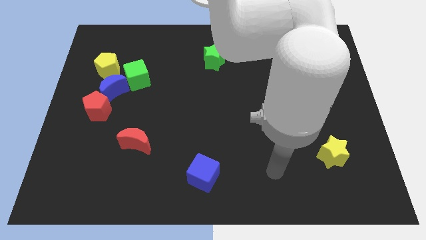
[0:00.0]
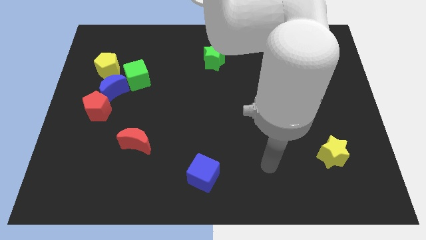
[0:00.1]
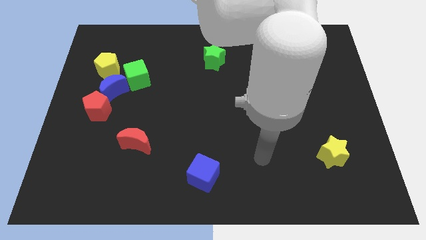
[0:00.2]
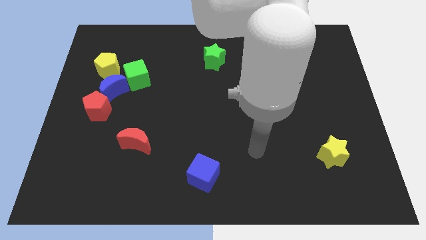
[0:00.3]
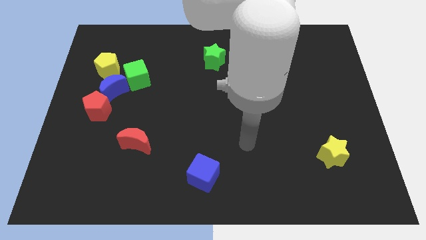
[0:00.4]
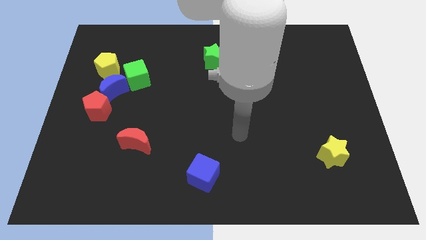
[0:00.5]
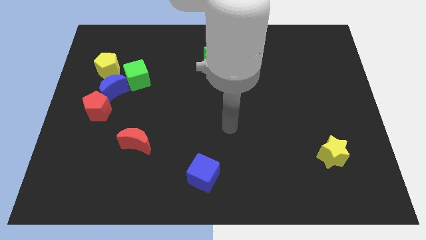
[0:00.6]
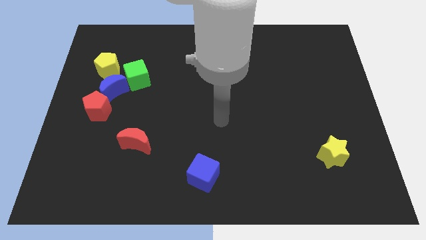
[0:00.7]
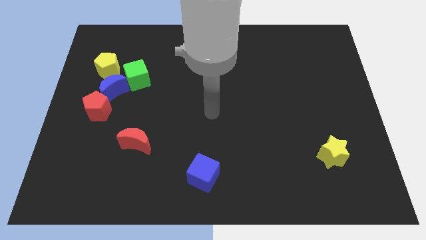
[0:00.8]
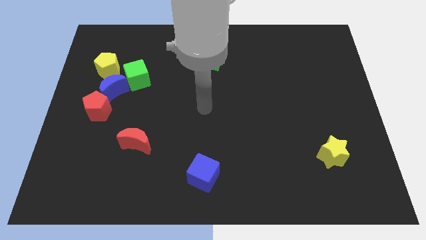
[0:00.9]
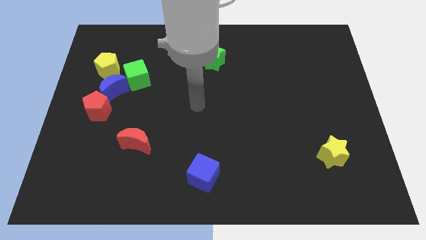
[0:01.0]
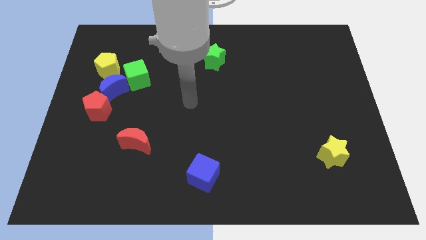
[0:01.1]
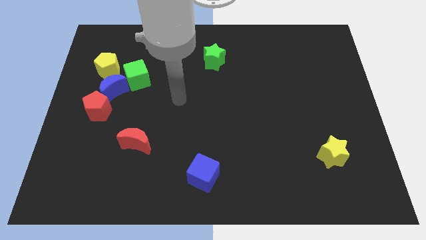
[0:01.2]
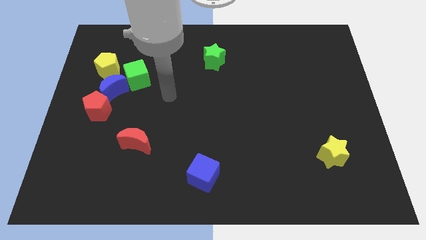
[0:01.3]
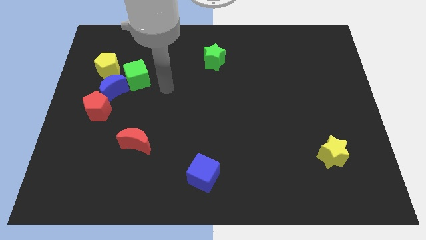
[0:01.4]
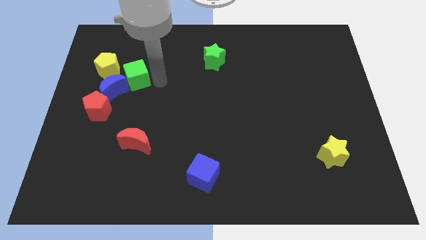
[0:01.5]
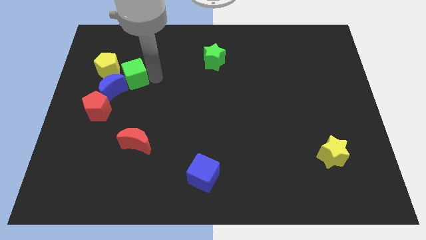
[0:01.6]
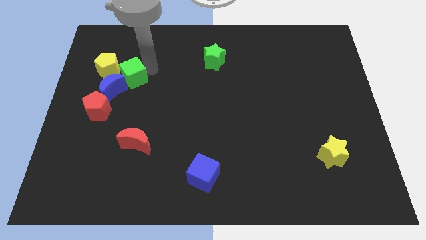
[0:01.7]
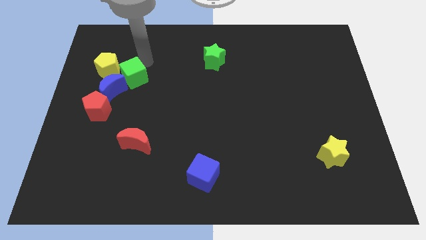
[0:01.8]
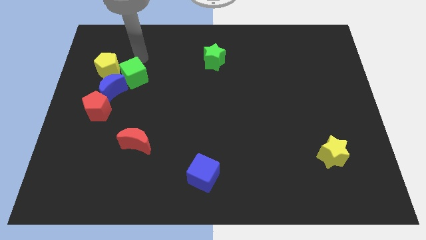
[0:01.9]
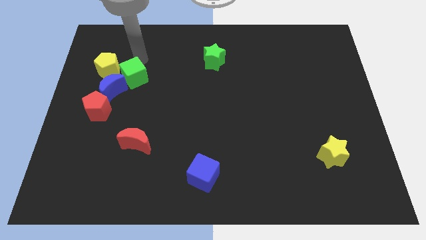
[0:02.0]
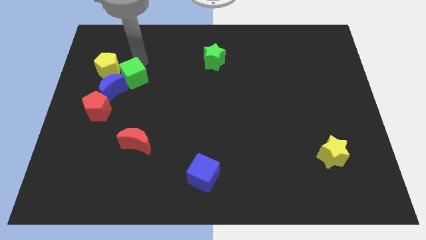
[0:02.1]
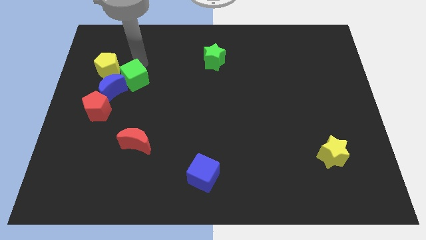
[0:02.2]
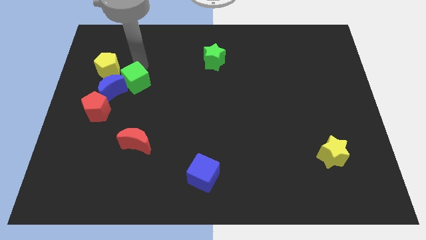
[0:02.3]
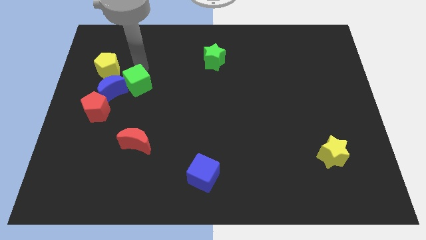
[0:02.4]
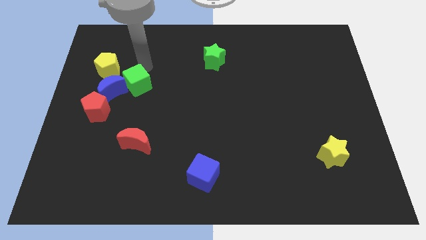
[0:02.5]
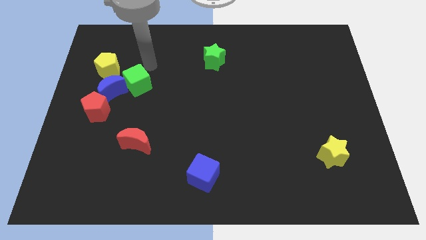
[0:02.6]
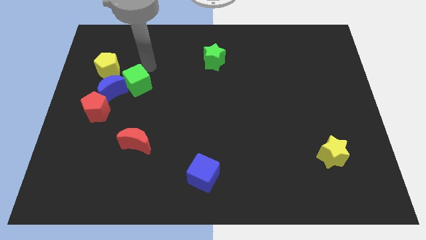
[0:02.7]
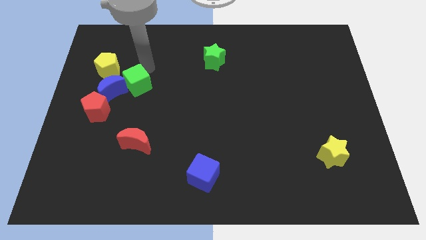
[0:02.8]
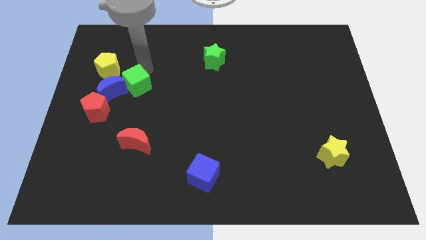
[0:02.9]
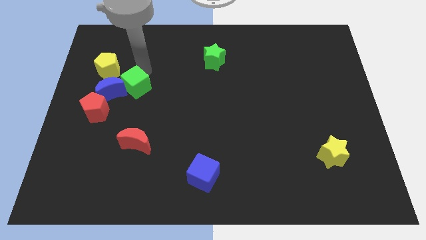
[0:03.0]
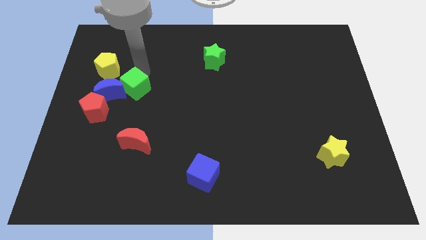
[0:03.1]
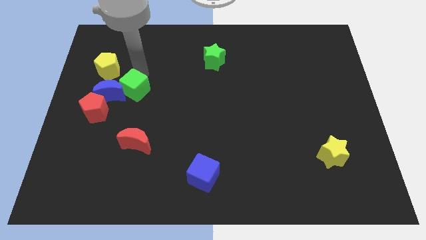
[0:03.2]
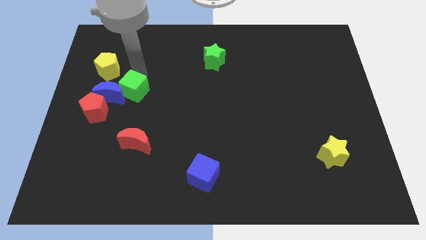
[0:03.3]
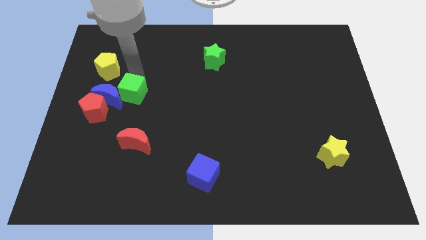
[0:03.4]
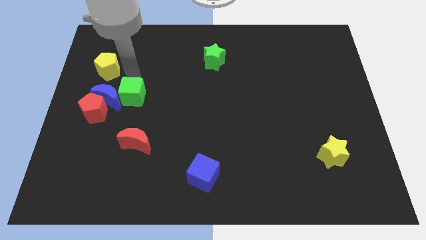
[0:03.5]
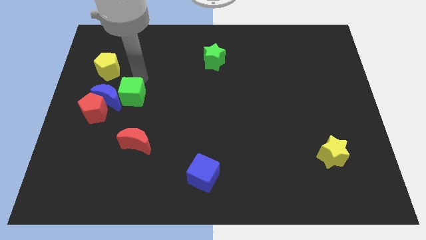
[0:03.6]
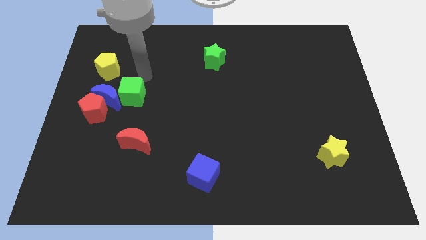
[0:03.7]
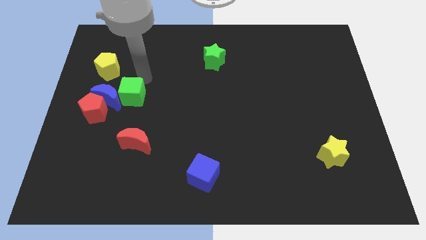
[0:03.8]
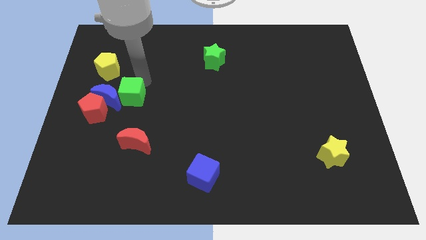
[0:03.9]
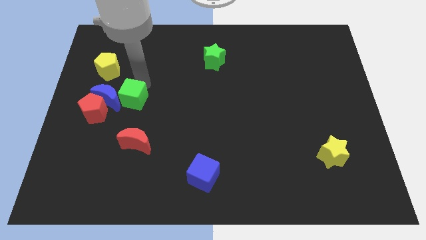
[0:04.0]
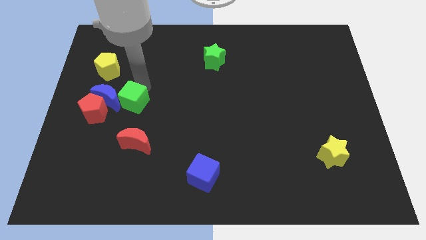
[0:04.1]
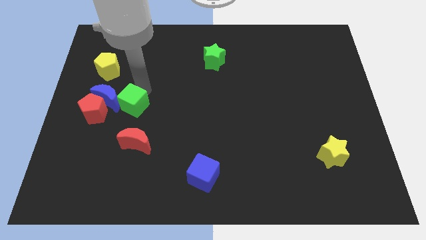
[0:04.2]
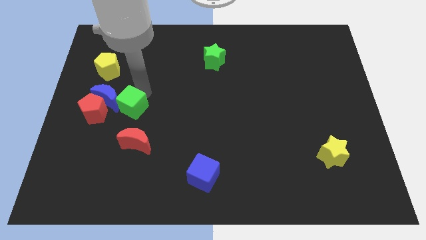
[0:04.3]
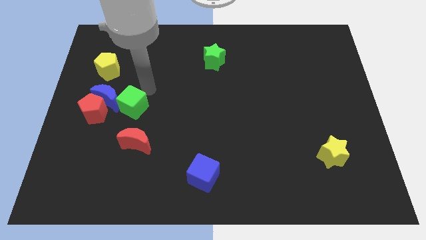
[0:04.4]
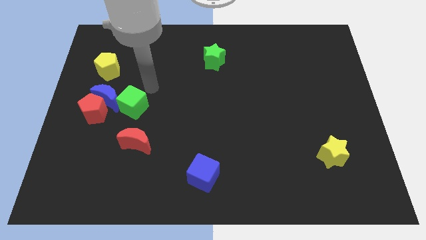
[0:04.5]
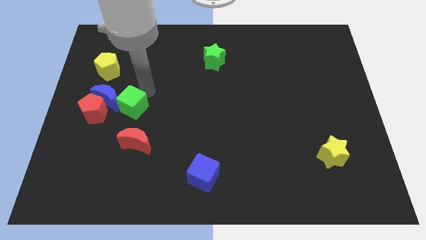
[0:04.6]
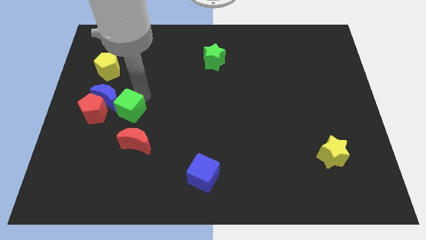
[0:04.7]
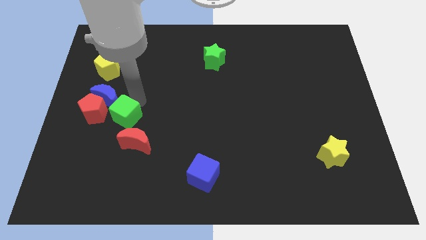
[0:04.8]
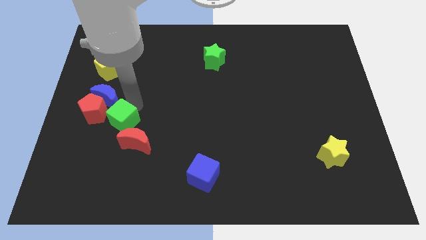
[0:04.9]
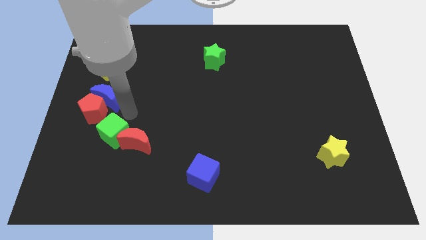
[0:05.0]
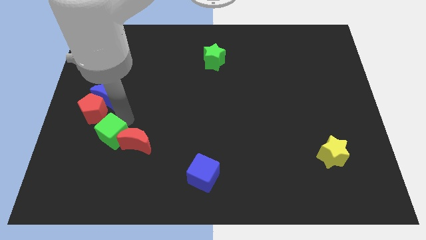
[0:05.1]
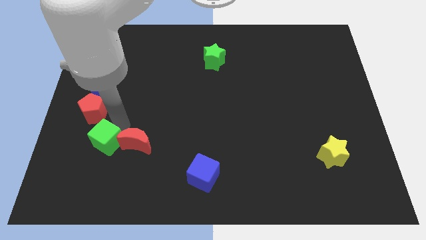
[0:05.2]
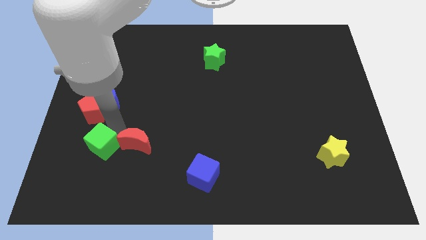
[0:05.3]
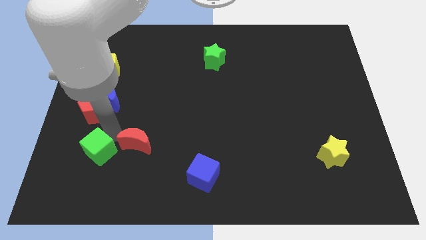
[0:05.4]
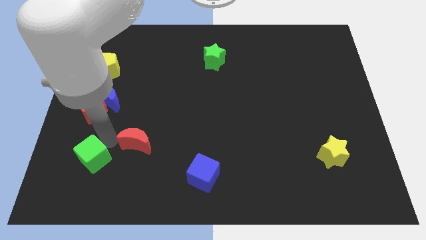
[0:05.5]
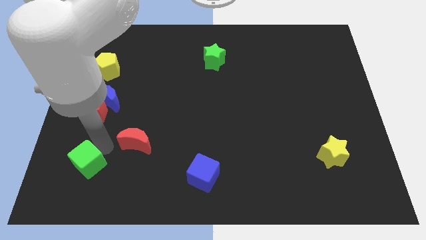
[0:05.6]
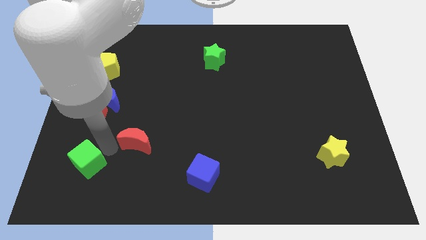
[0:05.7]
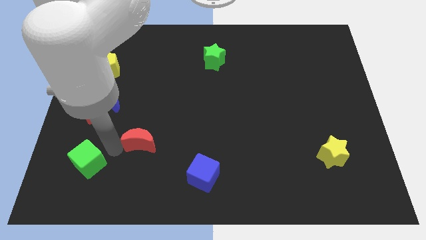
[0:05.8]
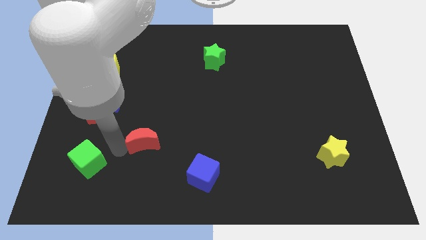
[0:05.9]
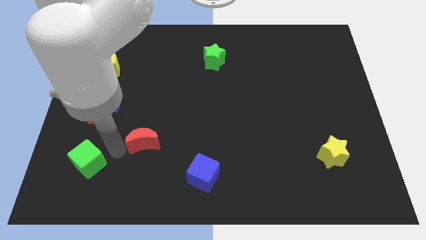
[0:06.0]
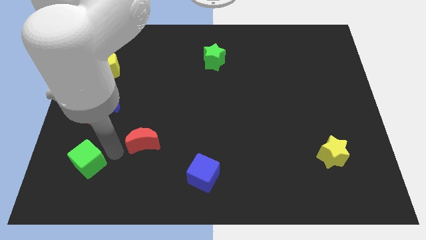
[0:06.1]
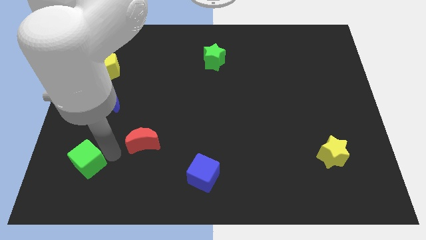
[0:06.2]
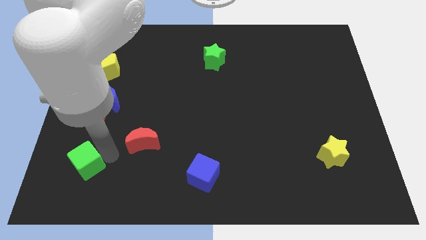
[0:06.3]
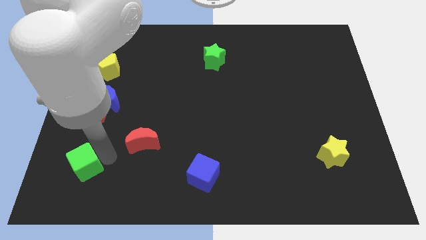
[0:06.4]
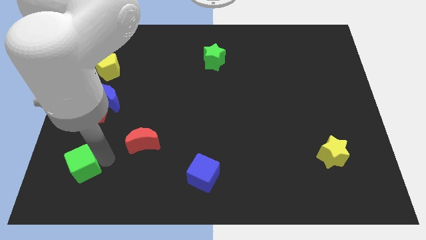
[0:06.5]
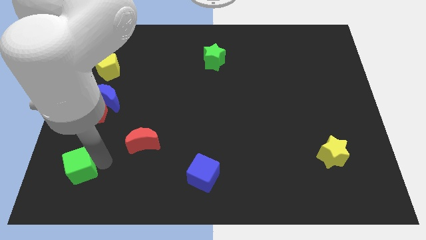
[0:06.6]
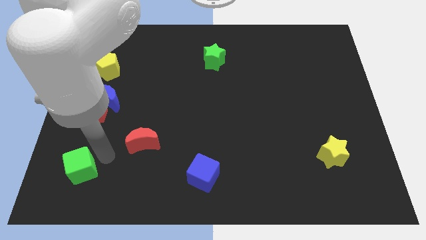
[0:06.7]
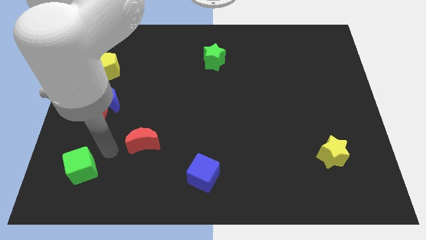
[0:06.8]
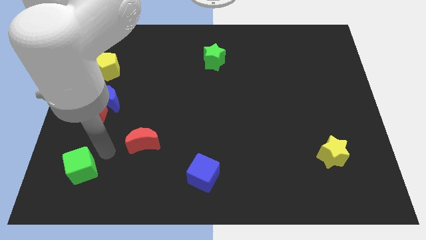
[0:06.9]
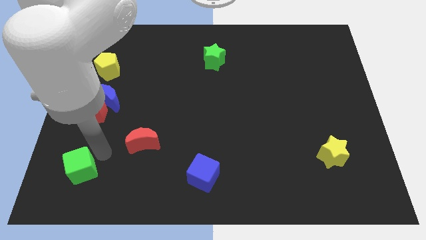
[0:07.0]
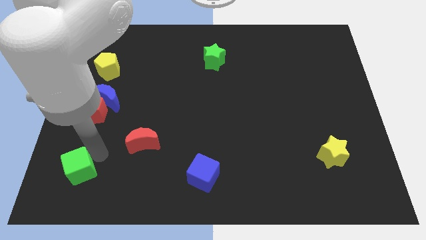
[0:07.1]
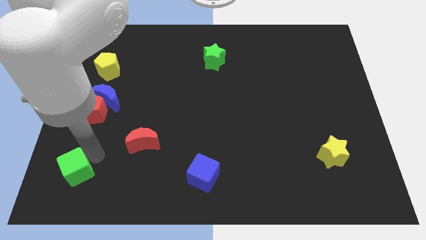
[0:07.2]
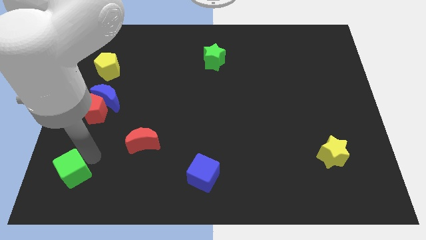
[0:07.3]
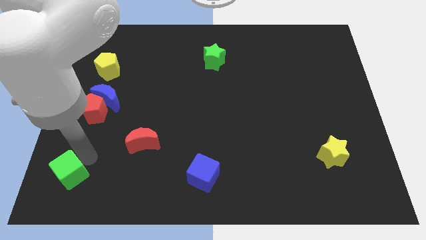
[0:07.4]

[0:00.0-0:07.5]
move the green cube to the bottom left corner
